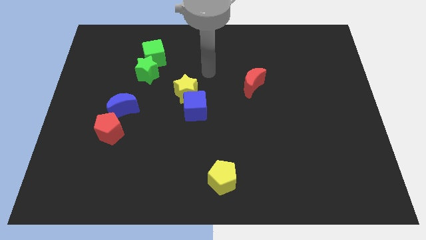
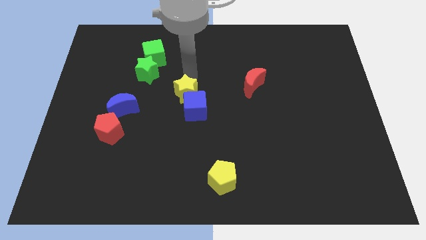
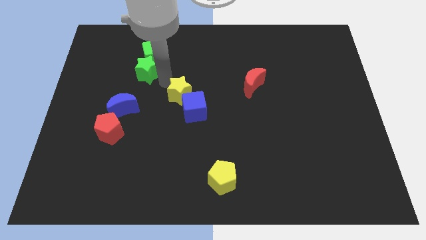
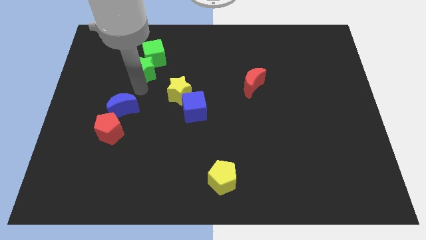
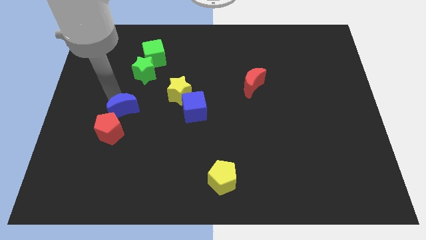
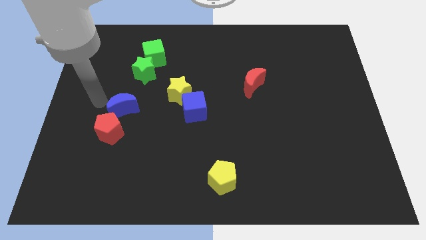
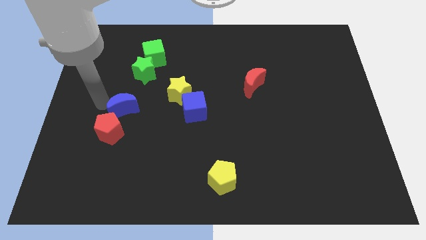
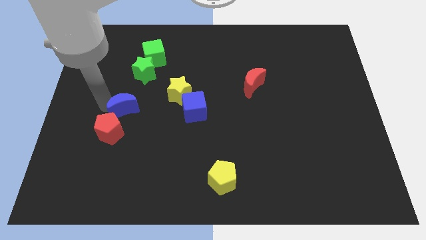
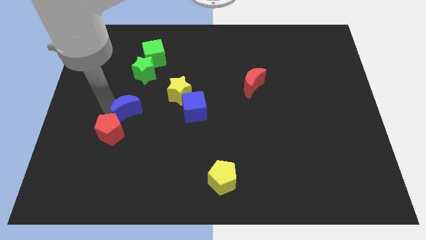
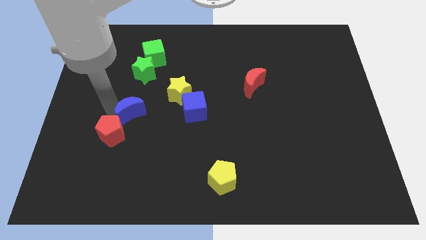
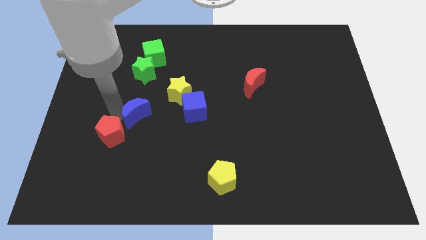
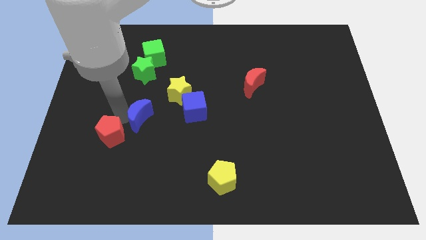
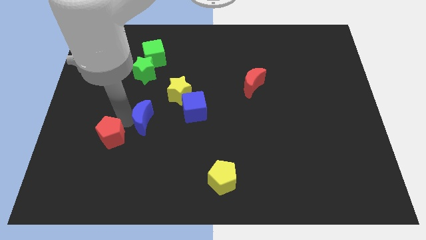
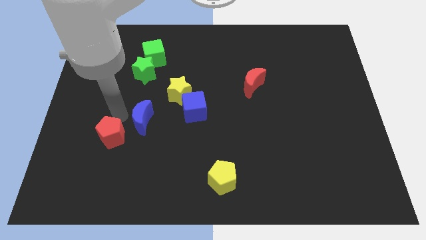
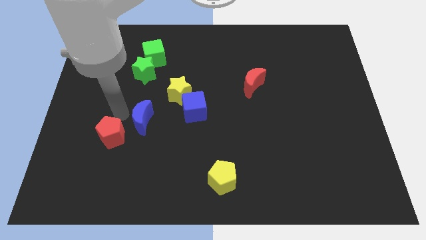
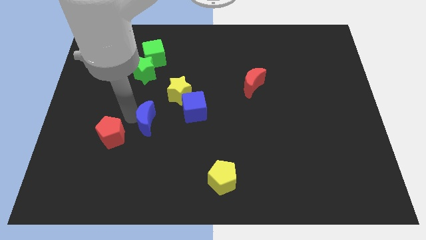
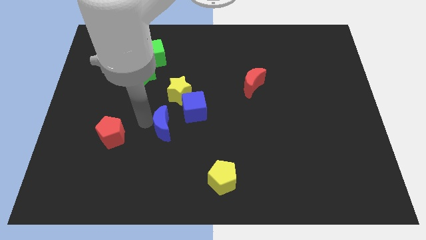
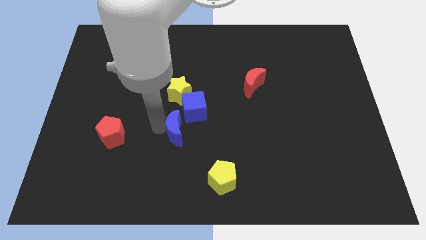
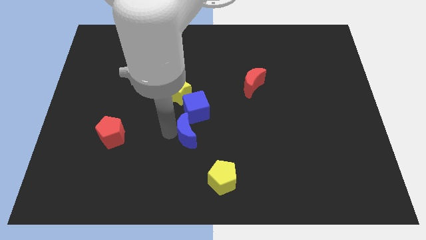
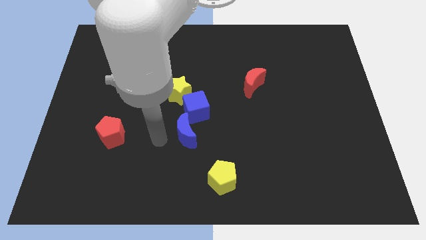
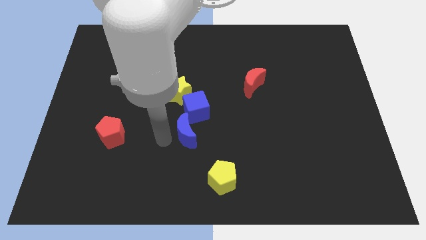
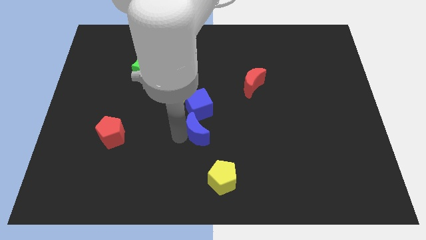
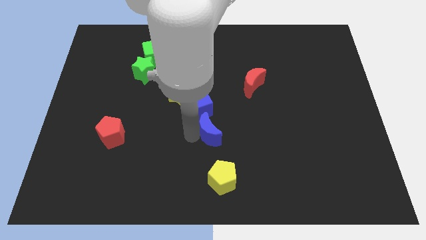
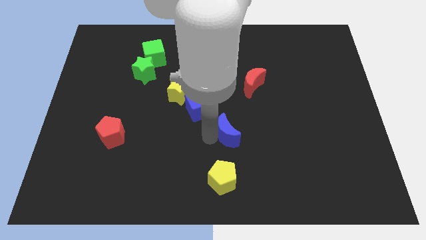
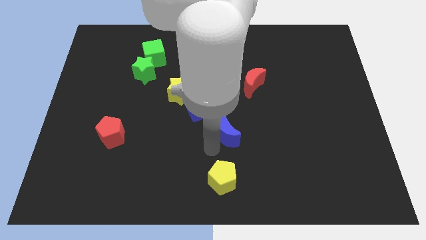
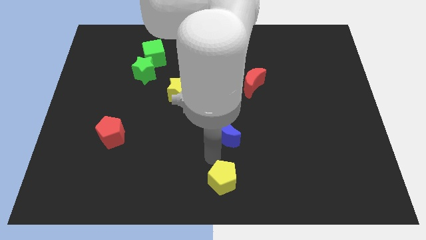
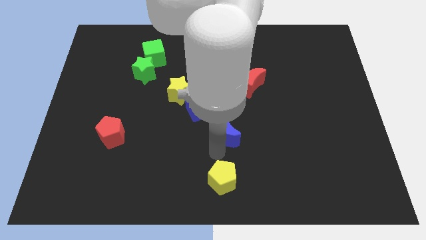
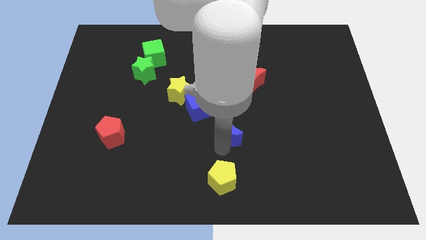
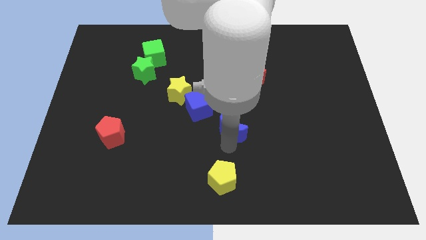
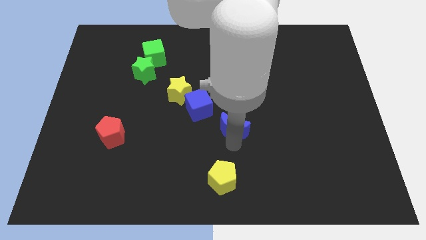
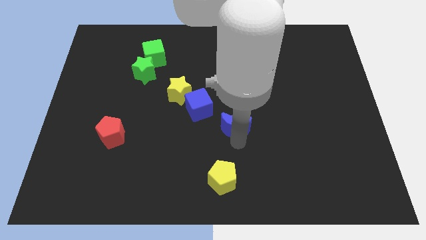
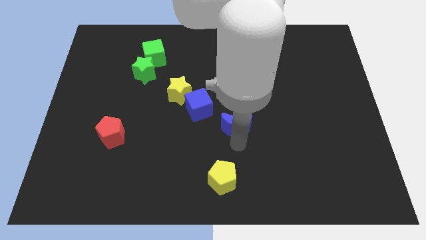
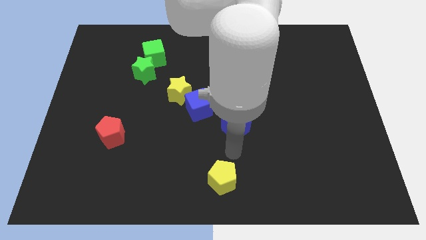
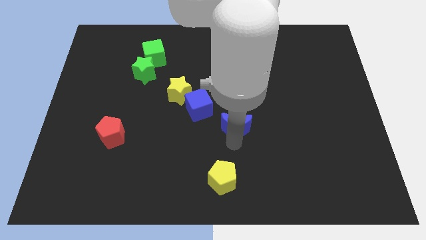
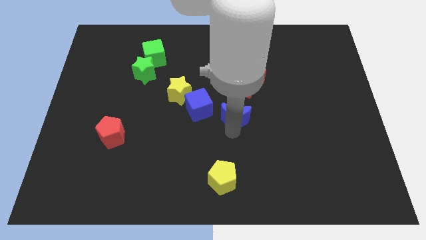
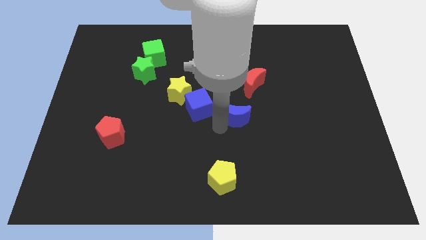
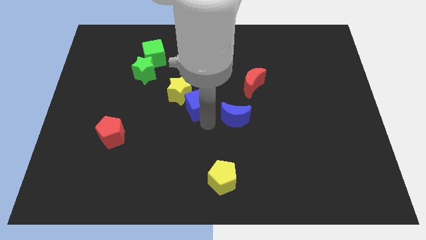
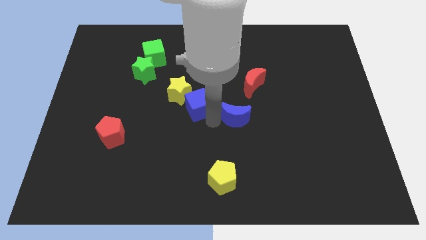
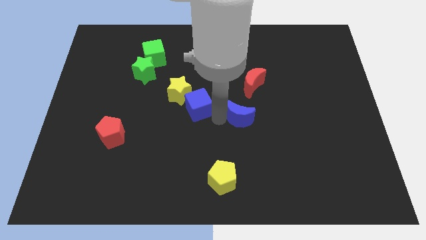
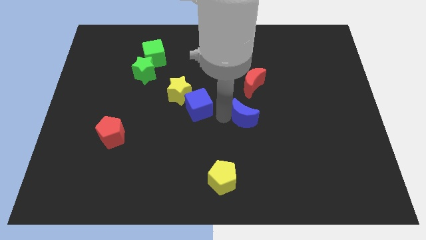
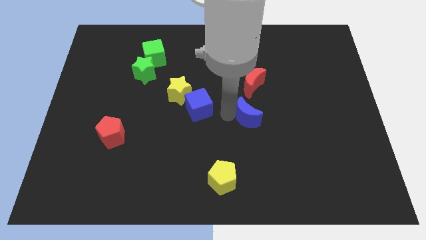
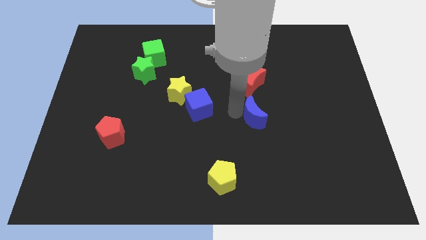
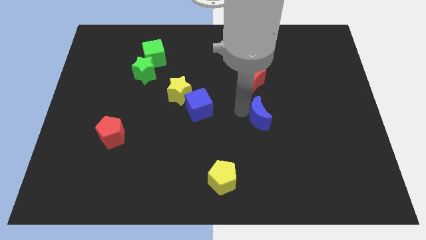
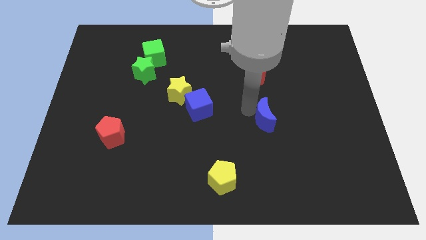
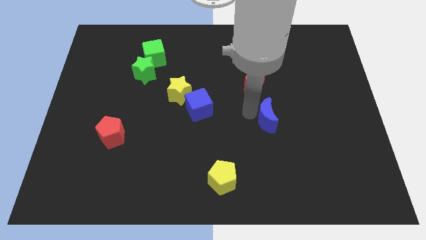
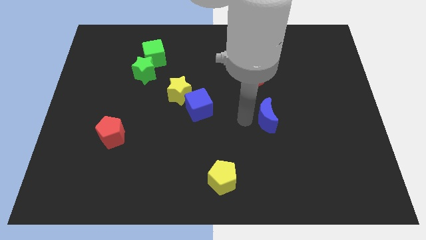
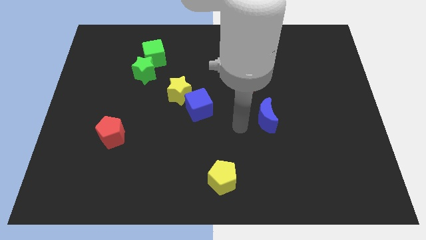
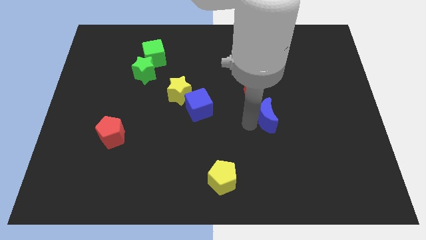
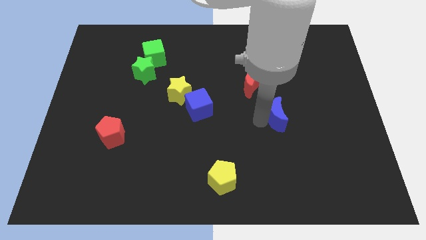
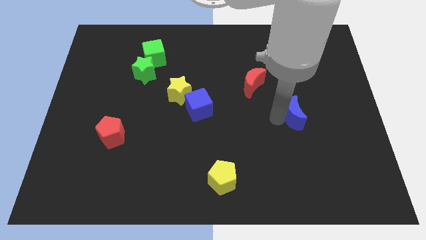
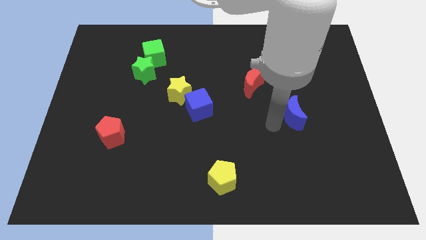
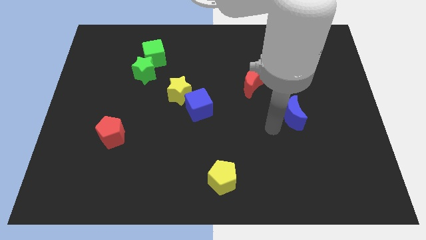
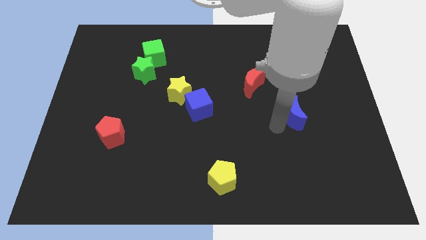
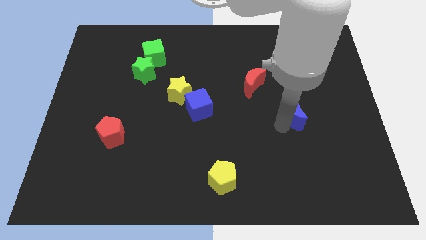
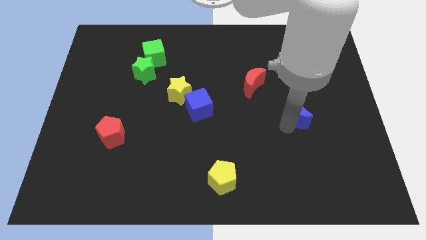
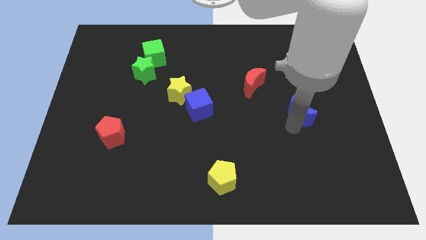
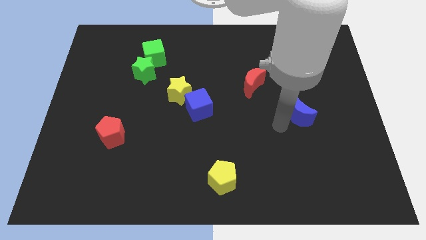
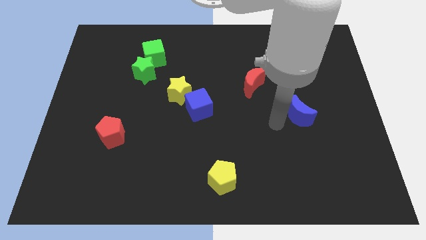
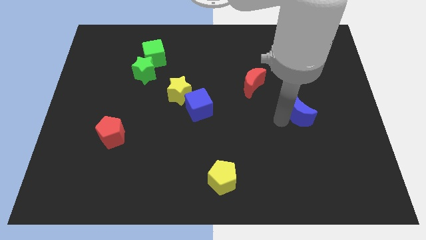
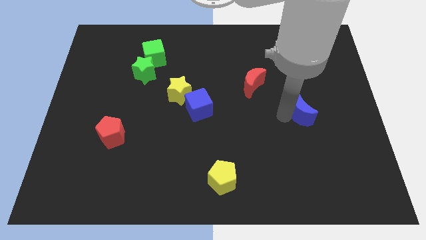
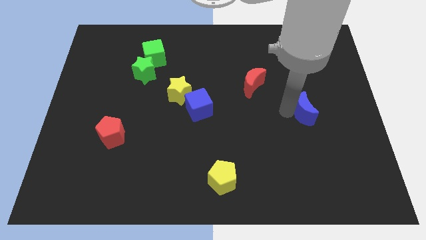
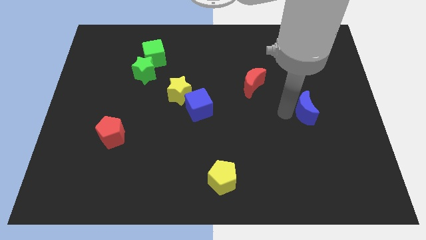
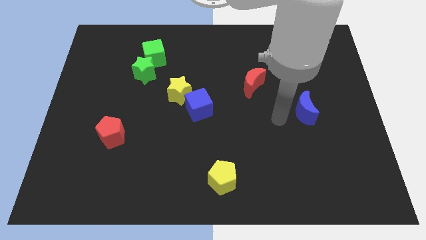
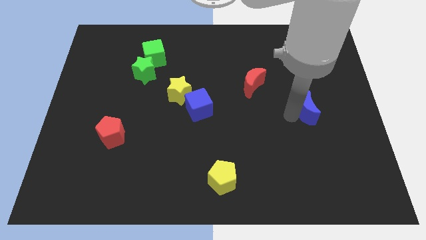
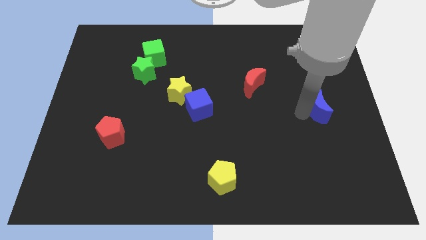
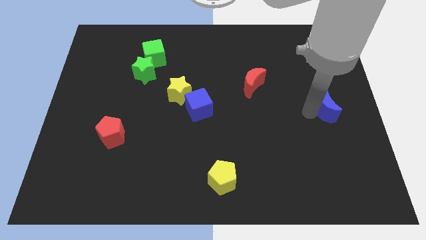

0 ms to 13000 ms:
push the blue moon to the right side

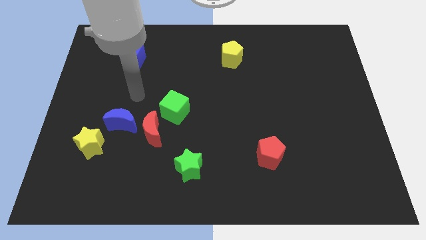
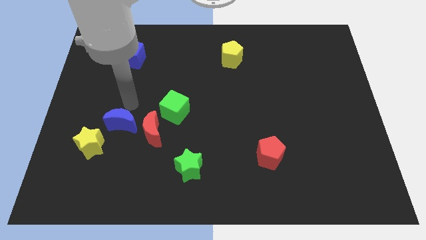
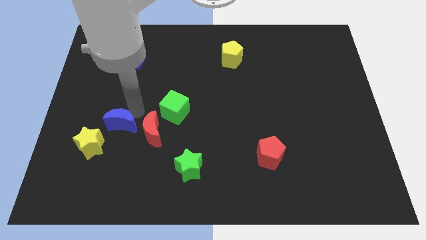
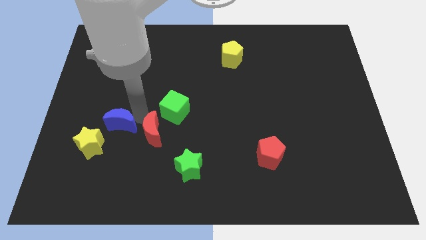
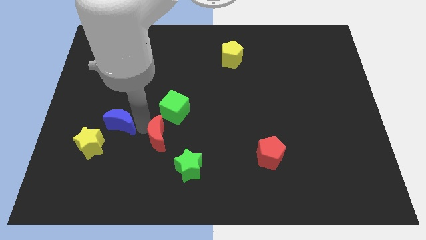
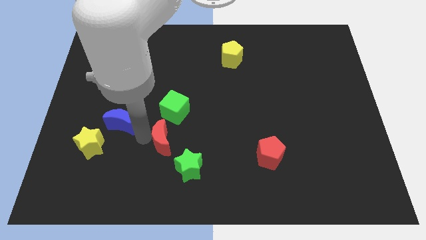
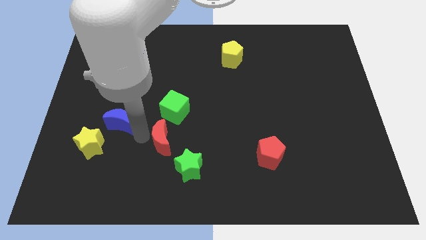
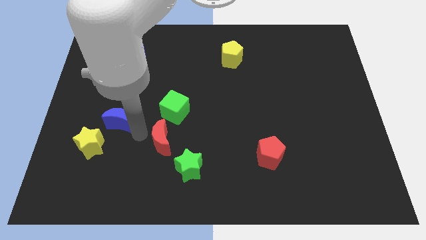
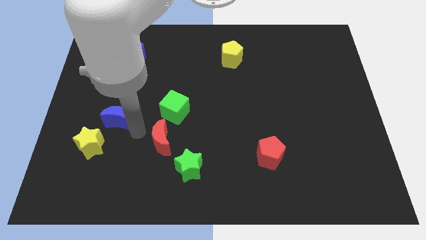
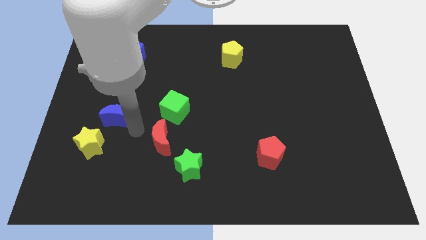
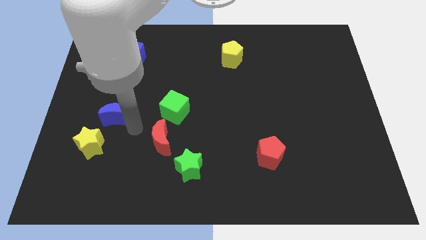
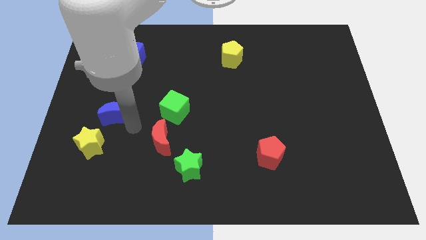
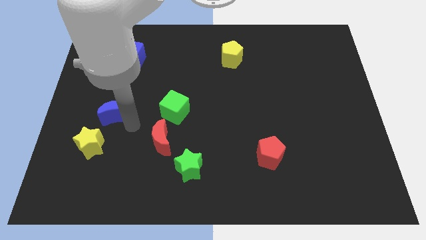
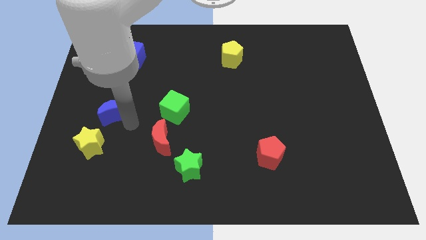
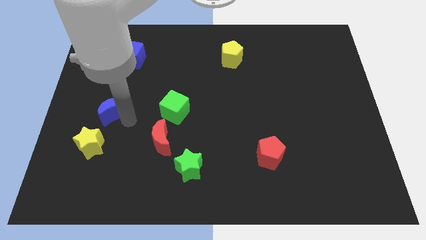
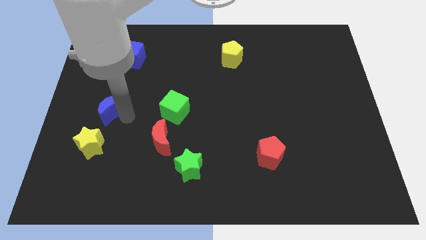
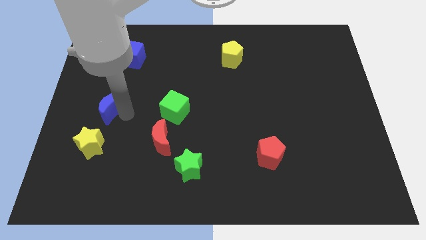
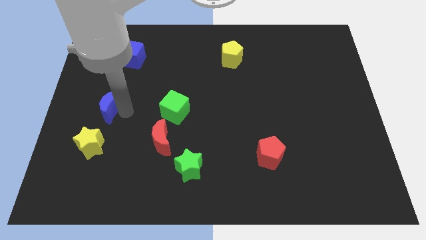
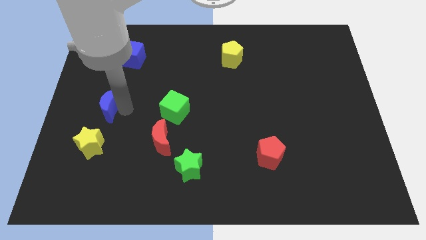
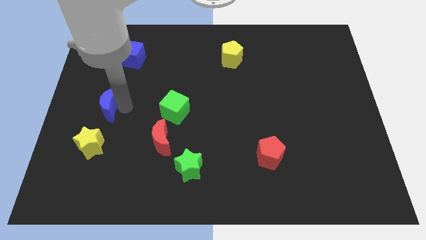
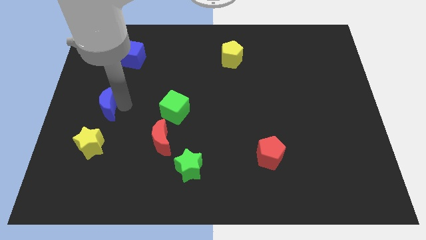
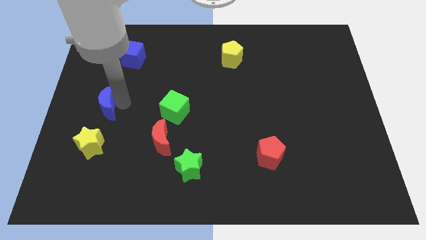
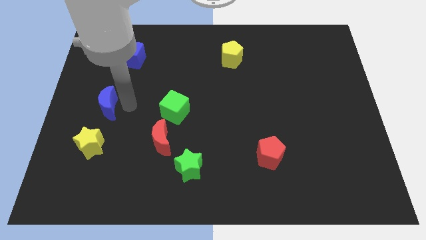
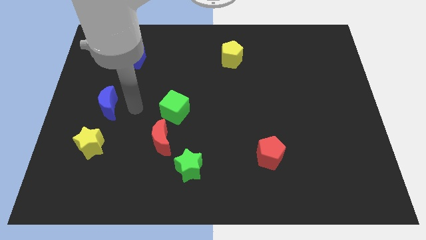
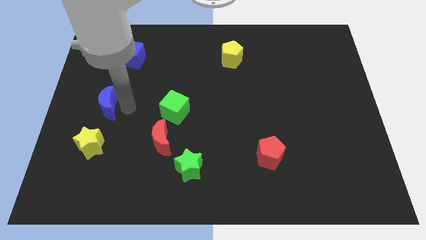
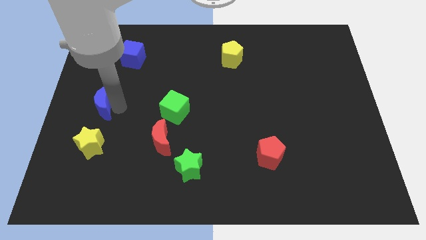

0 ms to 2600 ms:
slide the blue moon to the left side of the board
